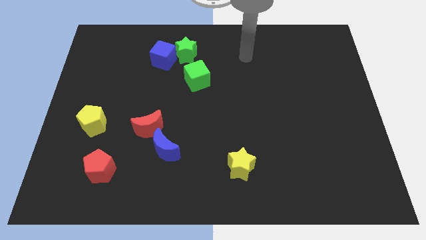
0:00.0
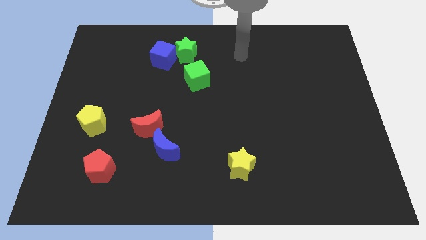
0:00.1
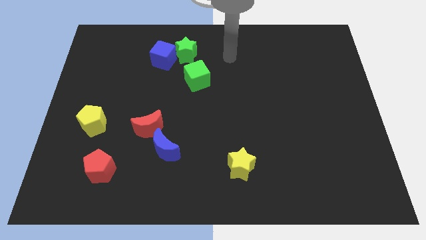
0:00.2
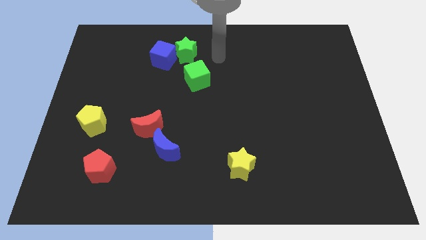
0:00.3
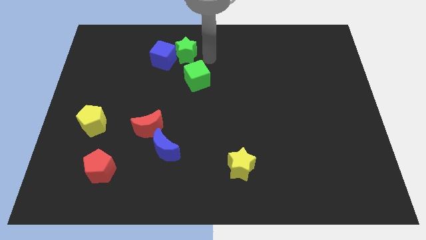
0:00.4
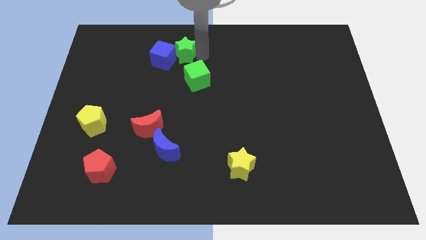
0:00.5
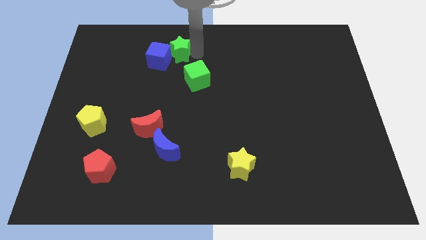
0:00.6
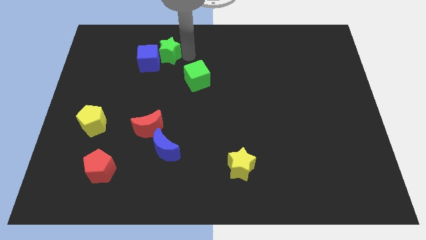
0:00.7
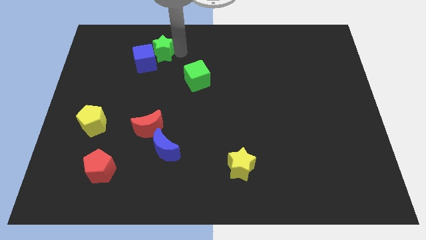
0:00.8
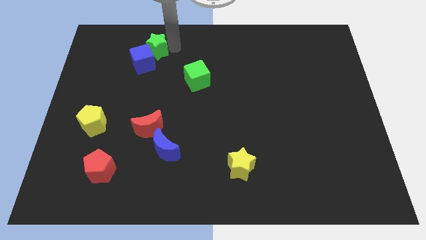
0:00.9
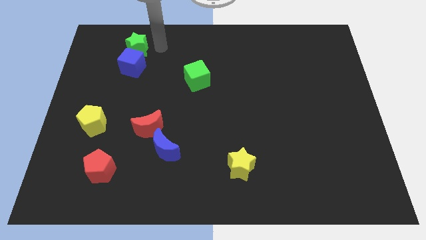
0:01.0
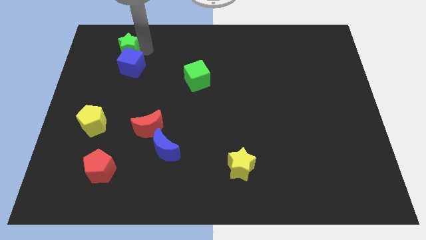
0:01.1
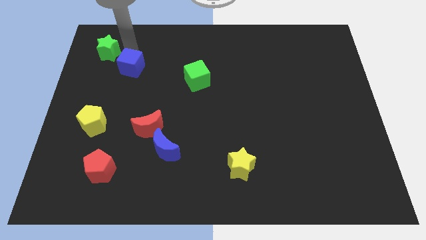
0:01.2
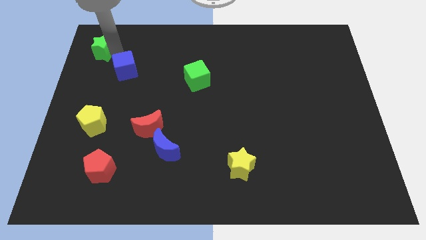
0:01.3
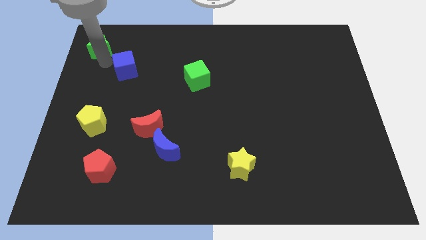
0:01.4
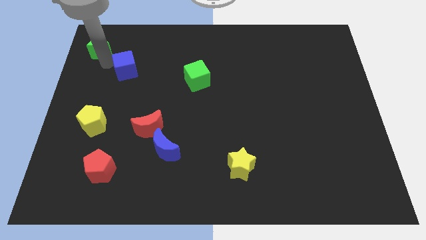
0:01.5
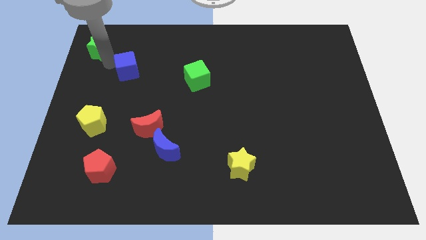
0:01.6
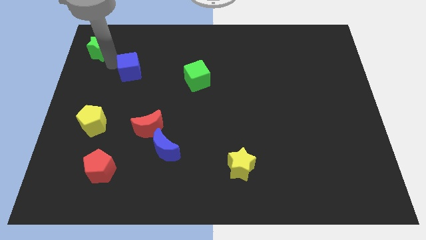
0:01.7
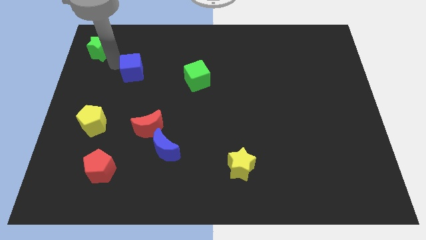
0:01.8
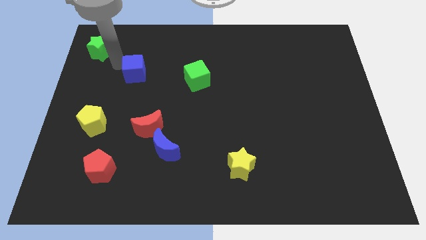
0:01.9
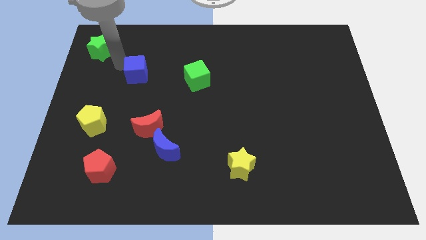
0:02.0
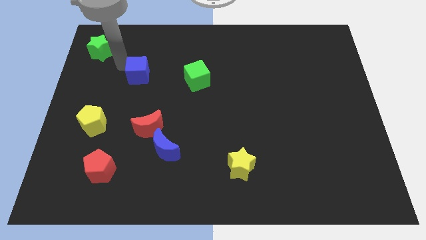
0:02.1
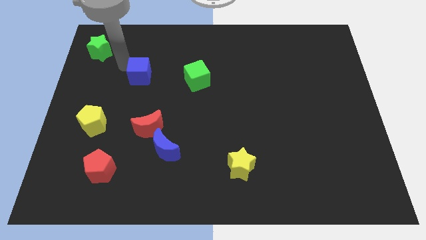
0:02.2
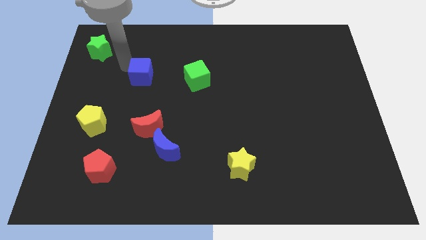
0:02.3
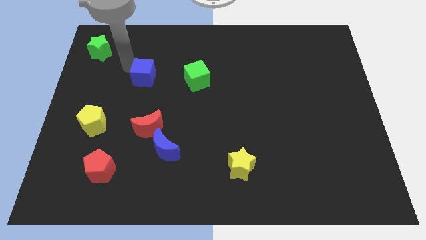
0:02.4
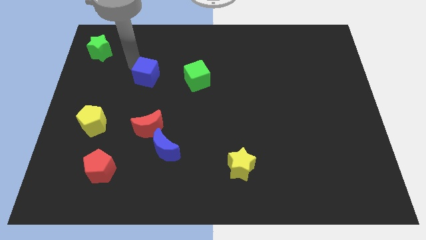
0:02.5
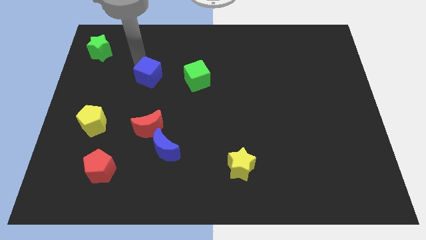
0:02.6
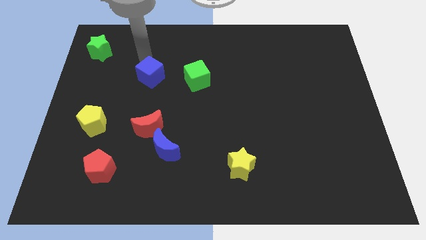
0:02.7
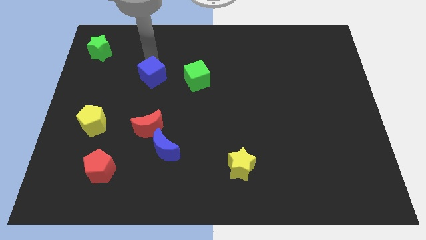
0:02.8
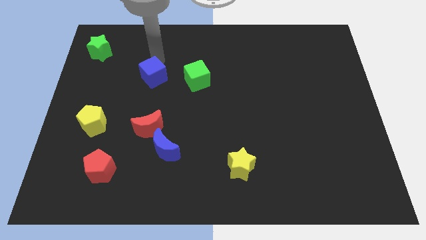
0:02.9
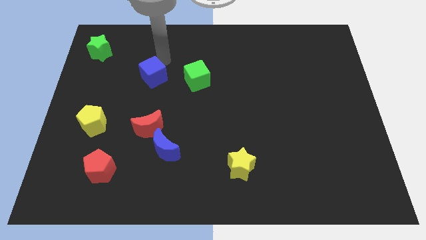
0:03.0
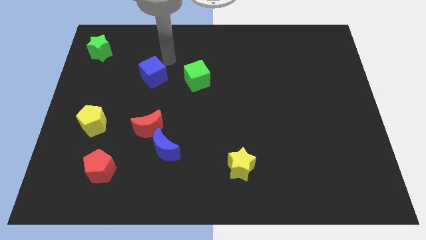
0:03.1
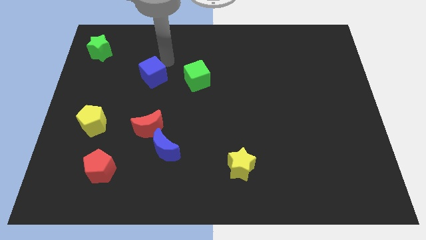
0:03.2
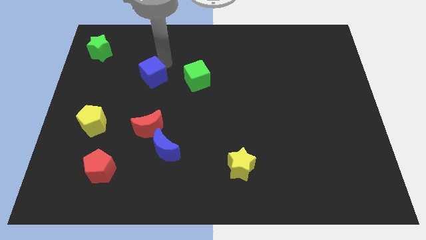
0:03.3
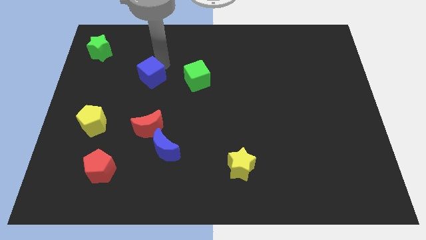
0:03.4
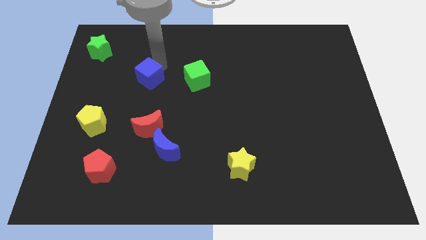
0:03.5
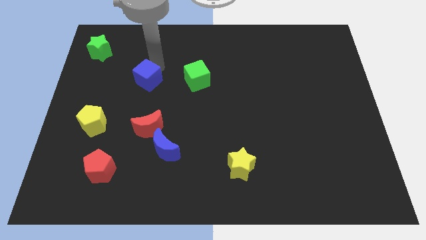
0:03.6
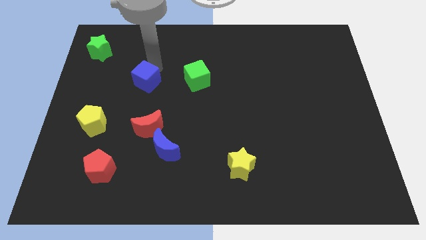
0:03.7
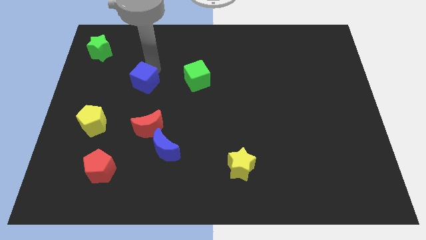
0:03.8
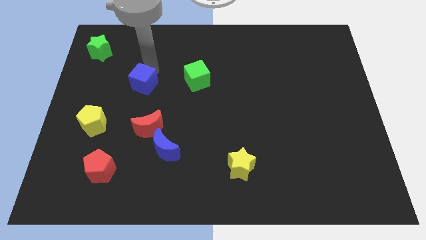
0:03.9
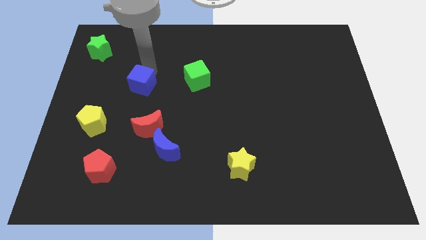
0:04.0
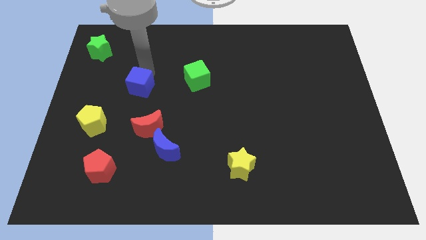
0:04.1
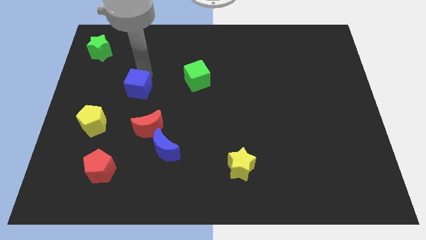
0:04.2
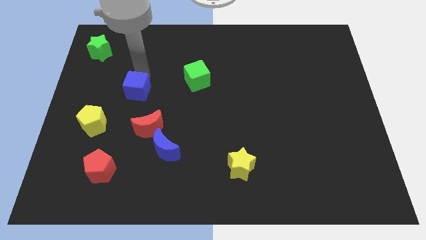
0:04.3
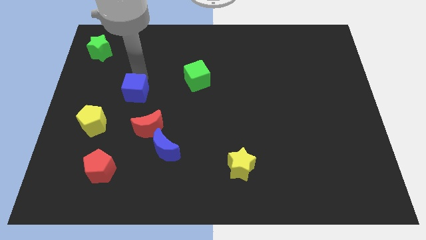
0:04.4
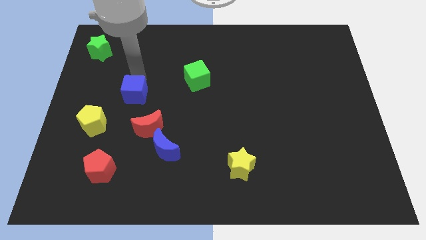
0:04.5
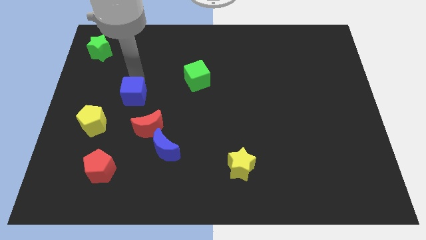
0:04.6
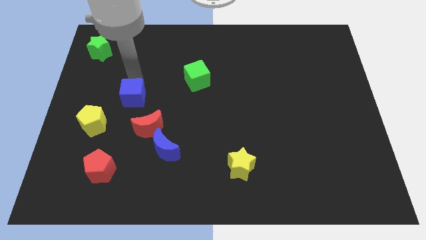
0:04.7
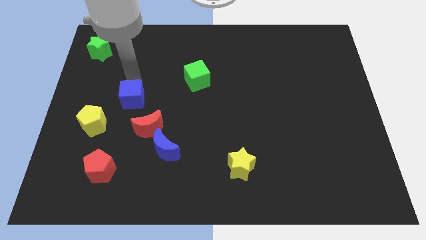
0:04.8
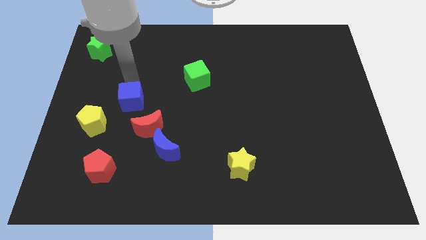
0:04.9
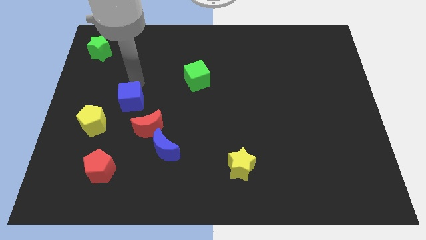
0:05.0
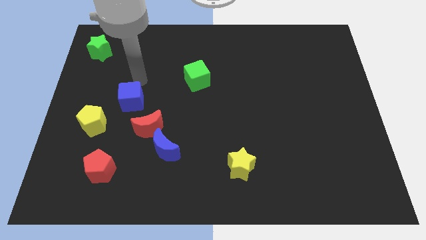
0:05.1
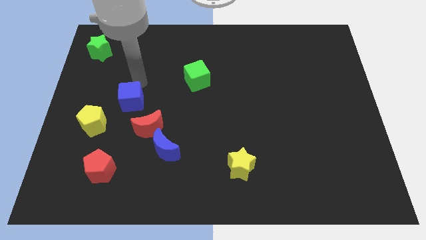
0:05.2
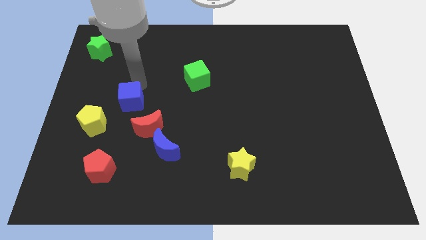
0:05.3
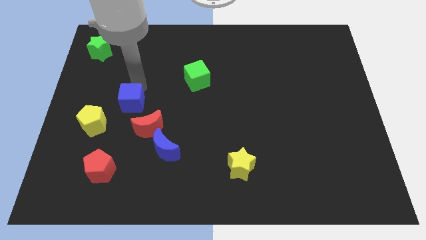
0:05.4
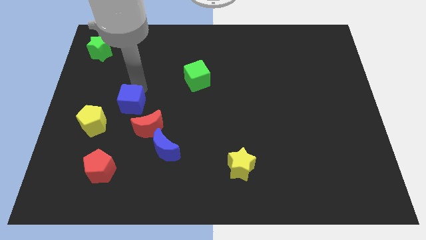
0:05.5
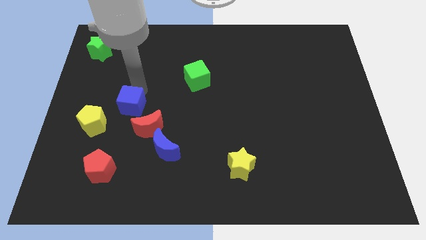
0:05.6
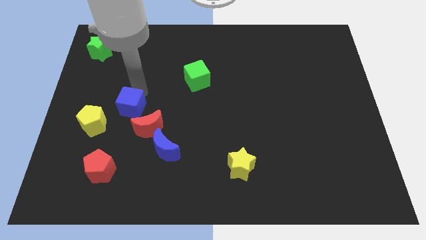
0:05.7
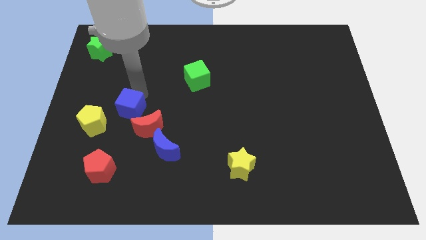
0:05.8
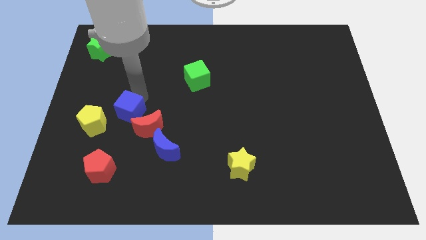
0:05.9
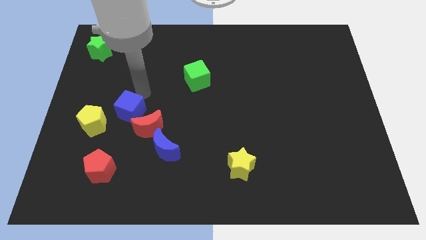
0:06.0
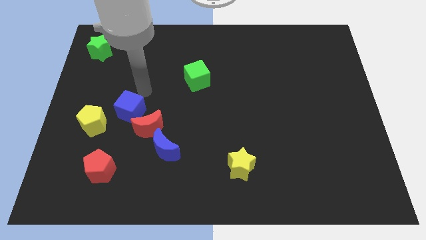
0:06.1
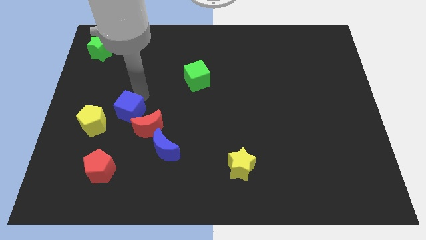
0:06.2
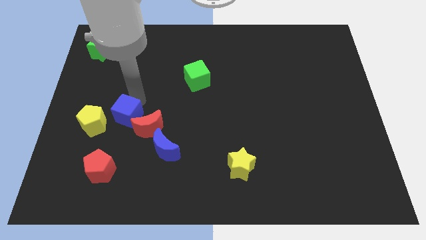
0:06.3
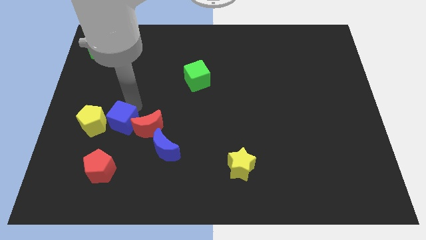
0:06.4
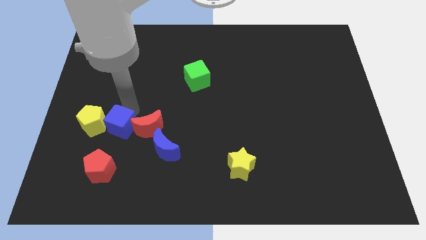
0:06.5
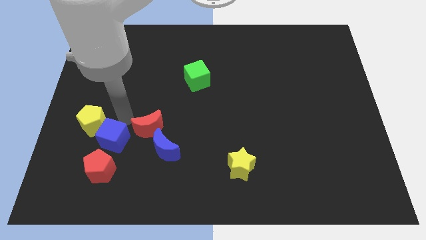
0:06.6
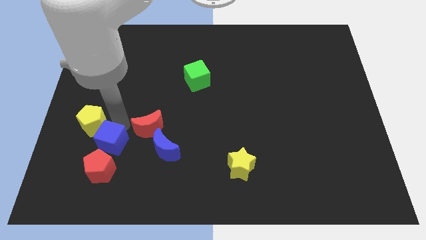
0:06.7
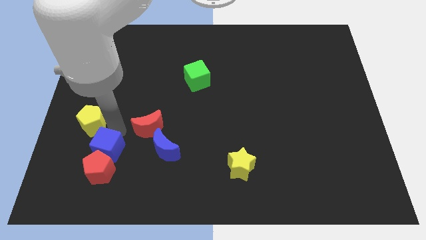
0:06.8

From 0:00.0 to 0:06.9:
move the blue cube close to the red pentagon
